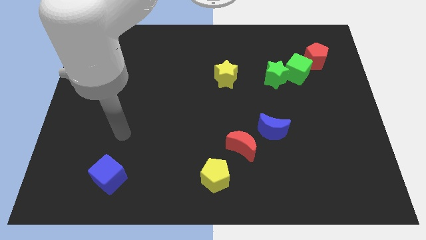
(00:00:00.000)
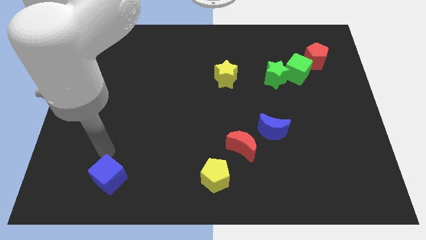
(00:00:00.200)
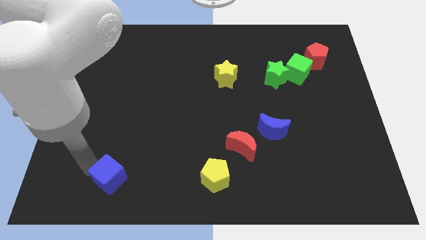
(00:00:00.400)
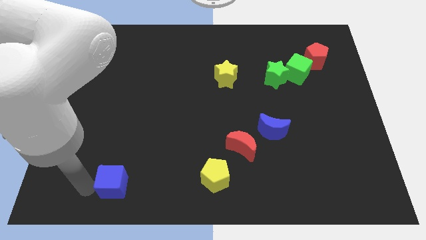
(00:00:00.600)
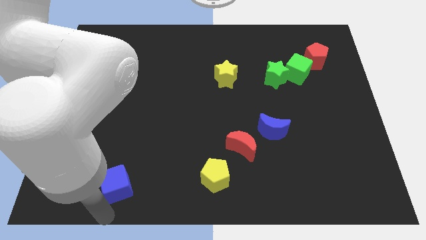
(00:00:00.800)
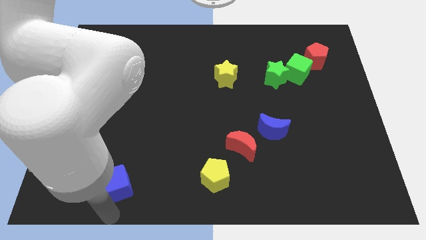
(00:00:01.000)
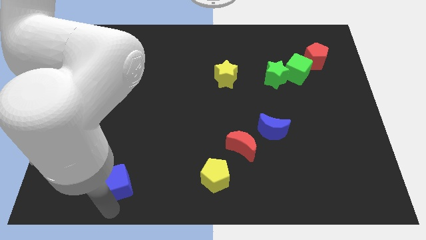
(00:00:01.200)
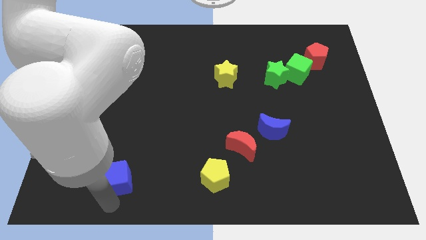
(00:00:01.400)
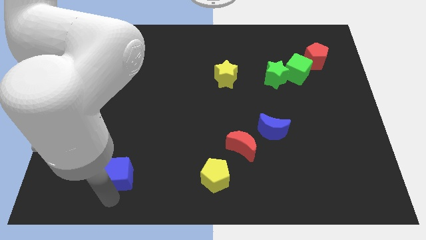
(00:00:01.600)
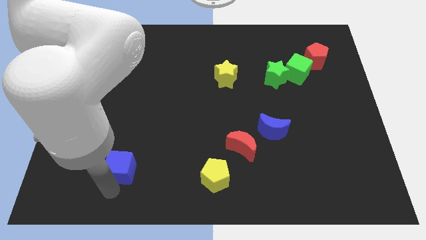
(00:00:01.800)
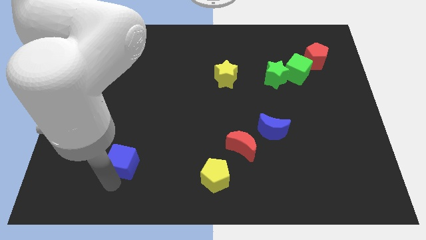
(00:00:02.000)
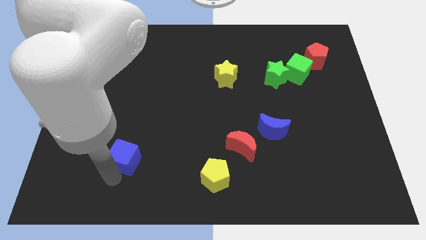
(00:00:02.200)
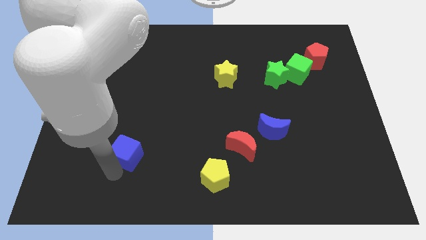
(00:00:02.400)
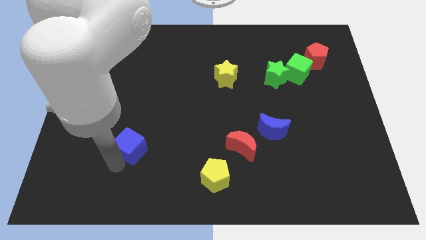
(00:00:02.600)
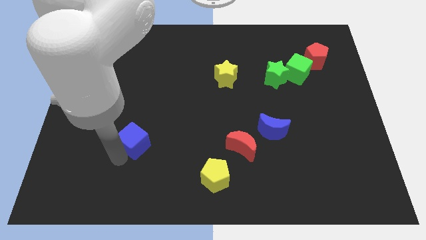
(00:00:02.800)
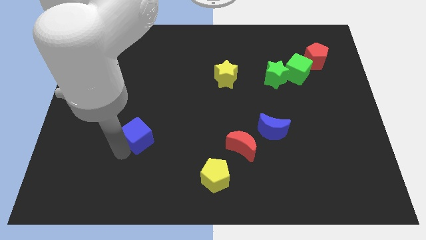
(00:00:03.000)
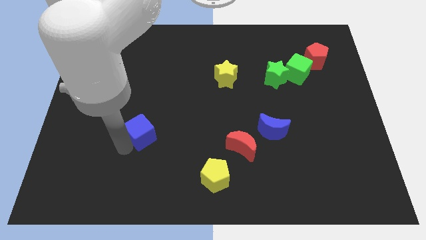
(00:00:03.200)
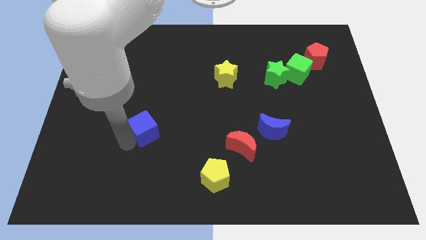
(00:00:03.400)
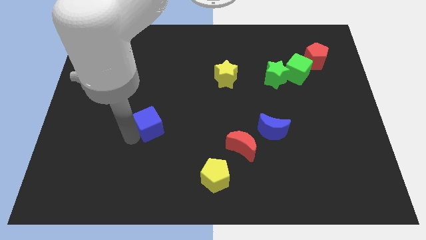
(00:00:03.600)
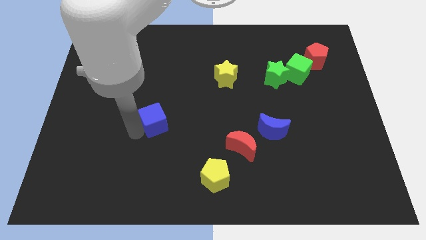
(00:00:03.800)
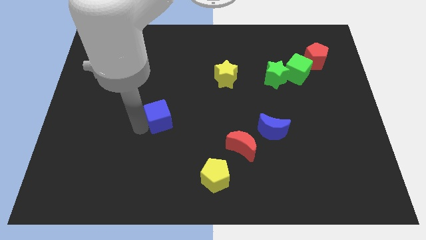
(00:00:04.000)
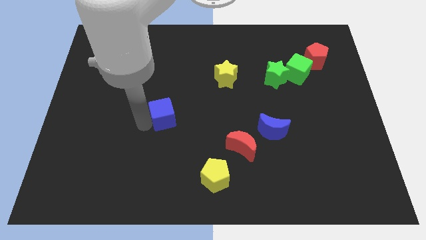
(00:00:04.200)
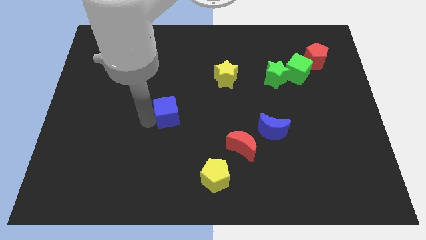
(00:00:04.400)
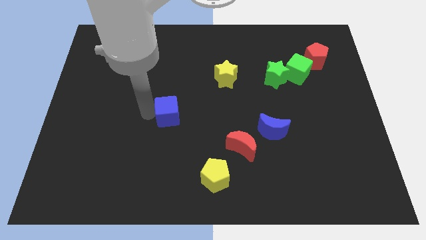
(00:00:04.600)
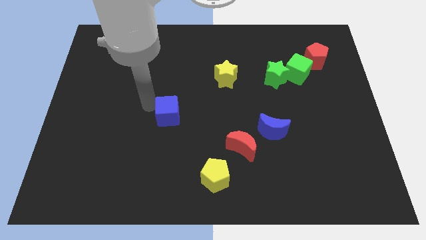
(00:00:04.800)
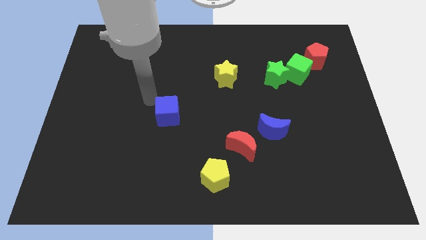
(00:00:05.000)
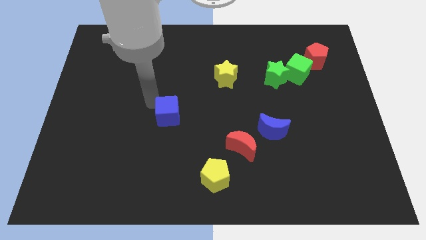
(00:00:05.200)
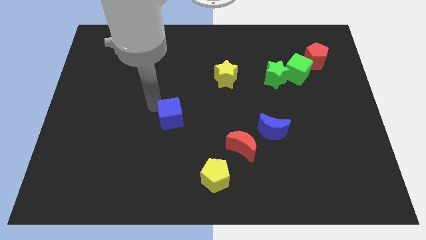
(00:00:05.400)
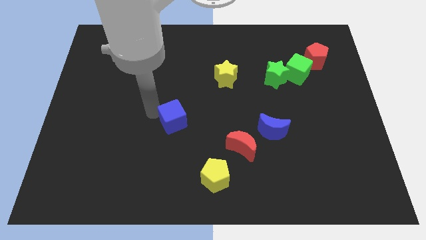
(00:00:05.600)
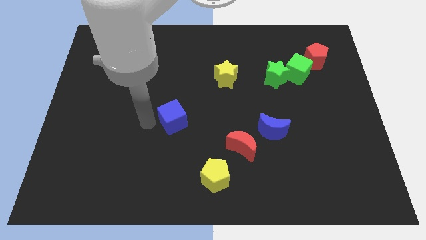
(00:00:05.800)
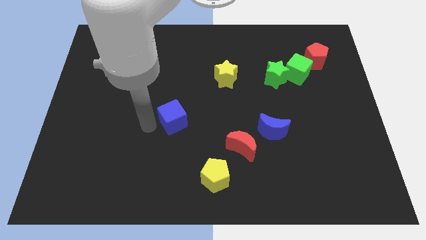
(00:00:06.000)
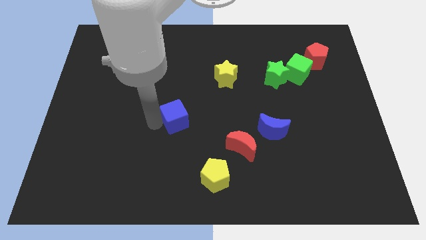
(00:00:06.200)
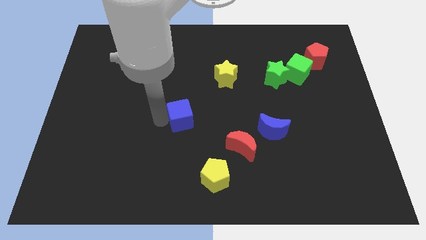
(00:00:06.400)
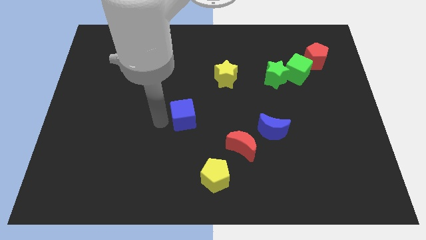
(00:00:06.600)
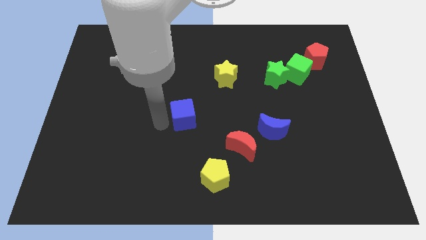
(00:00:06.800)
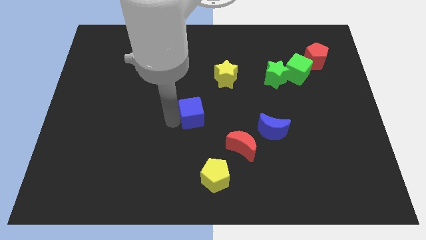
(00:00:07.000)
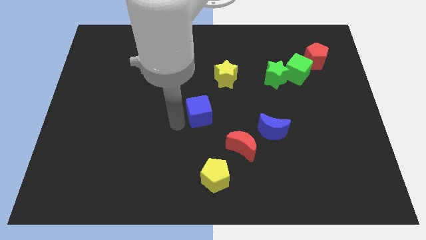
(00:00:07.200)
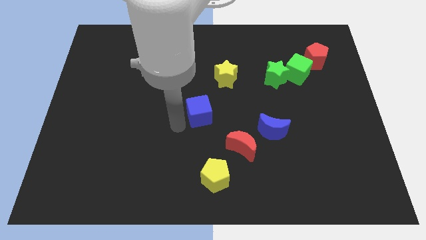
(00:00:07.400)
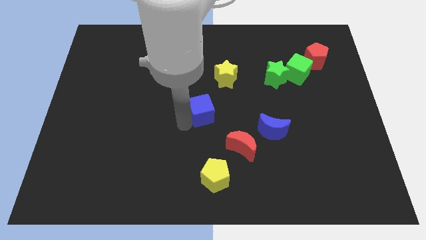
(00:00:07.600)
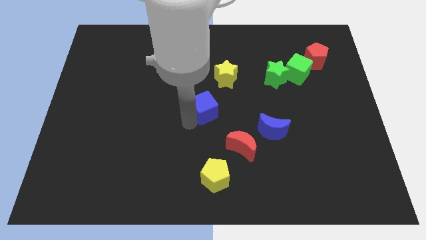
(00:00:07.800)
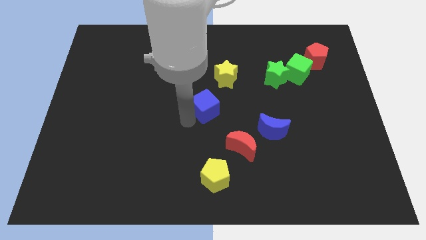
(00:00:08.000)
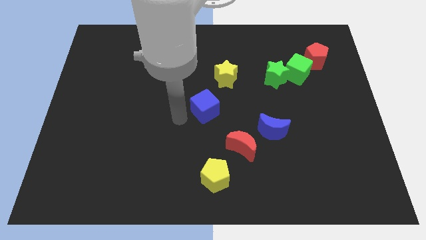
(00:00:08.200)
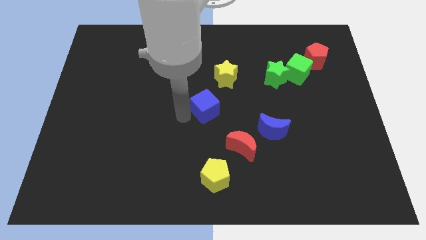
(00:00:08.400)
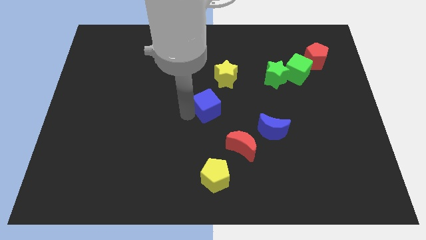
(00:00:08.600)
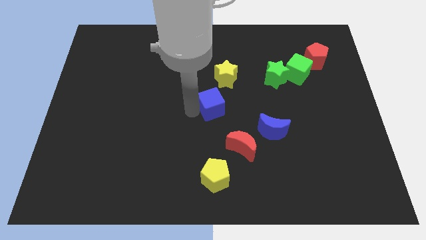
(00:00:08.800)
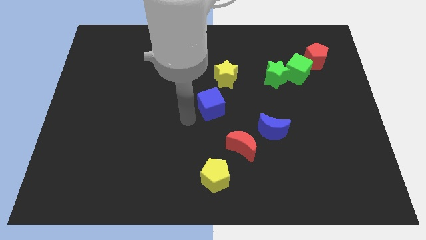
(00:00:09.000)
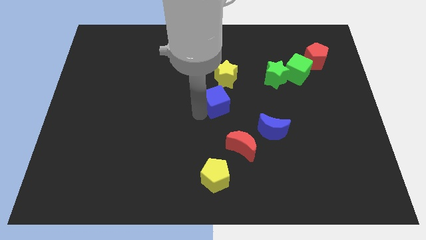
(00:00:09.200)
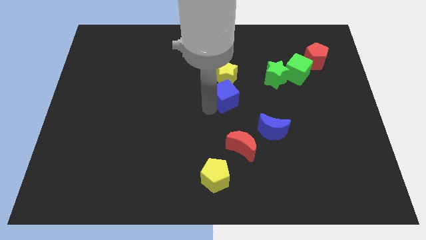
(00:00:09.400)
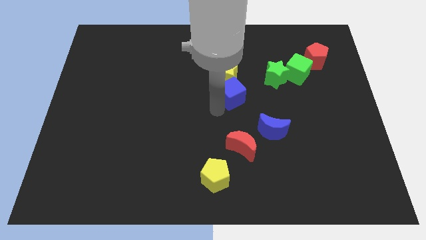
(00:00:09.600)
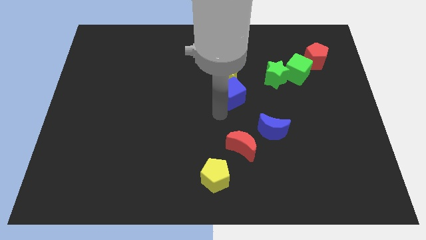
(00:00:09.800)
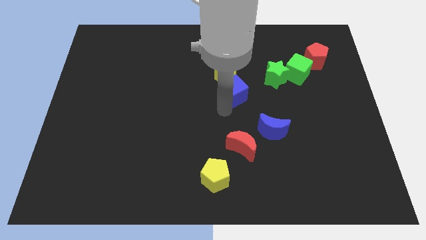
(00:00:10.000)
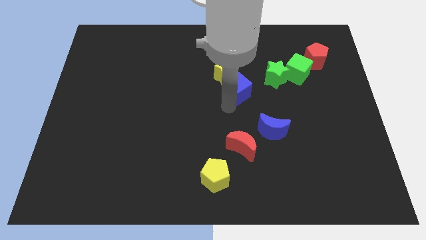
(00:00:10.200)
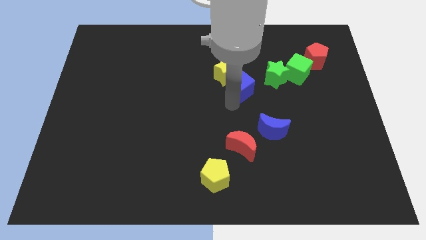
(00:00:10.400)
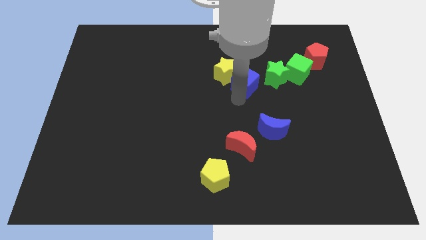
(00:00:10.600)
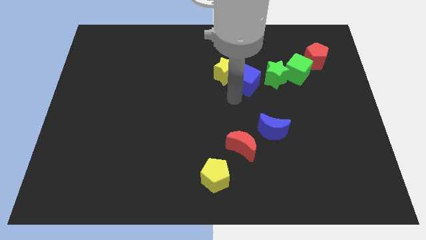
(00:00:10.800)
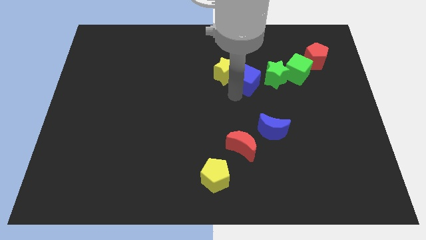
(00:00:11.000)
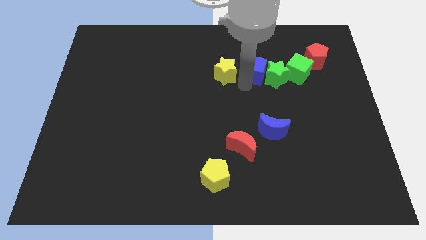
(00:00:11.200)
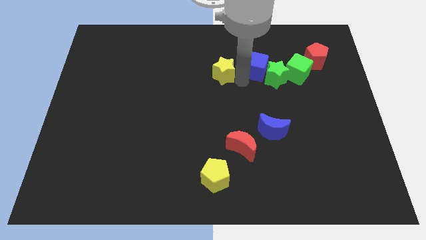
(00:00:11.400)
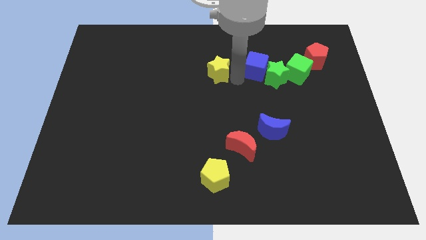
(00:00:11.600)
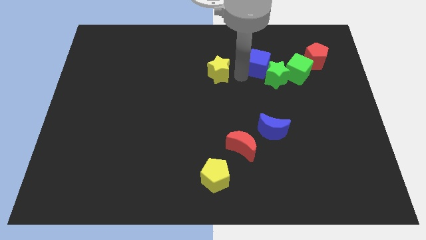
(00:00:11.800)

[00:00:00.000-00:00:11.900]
put the blue cube to the left side of the red pentagon
